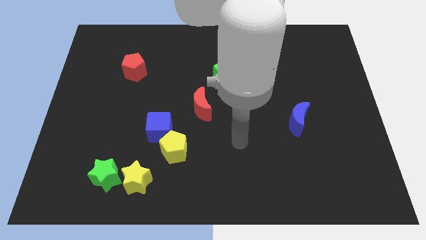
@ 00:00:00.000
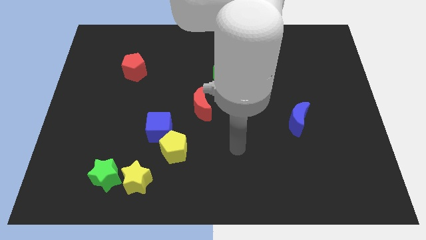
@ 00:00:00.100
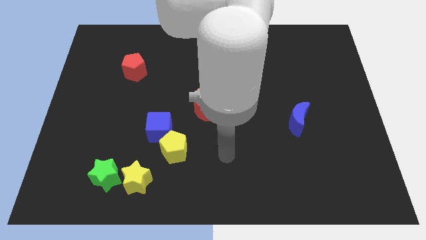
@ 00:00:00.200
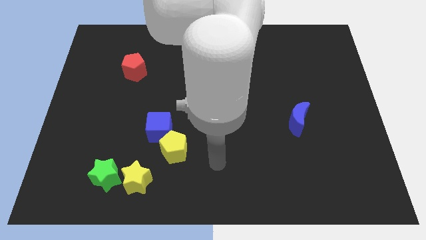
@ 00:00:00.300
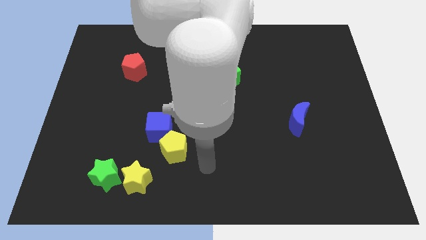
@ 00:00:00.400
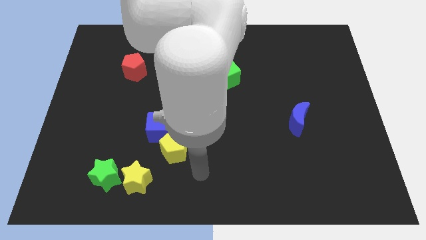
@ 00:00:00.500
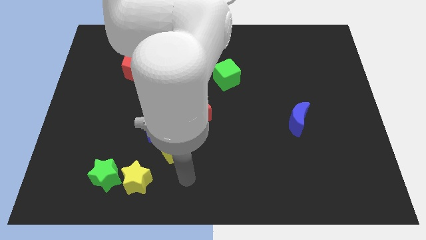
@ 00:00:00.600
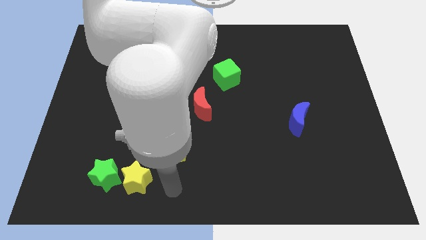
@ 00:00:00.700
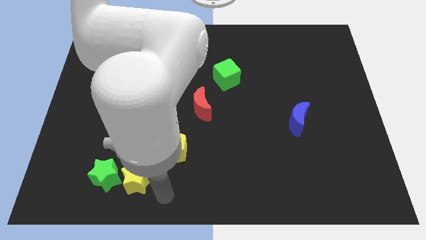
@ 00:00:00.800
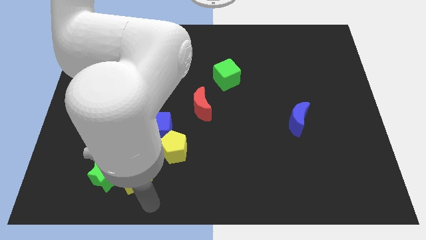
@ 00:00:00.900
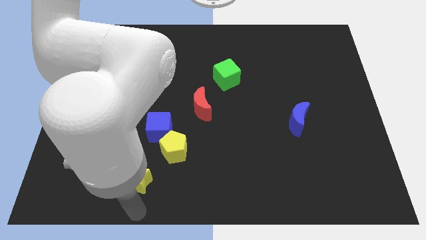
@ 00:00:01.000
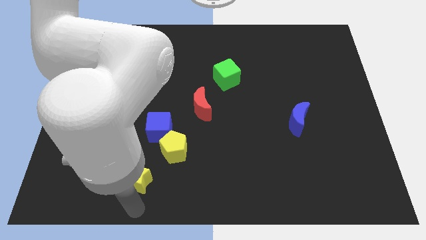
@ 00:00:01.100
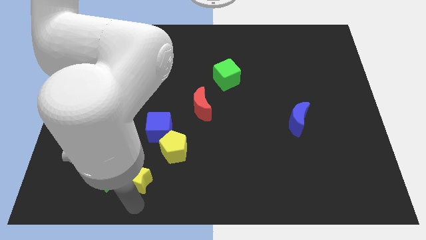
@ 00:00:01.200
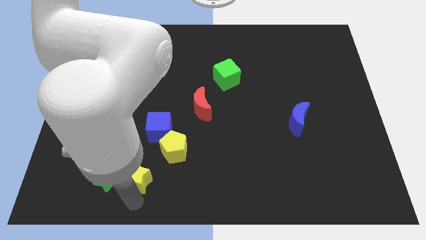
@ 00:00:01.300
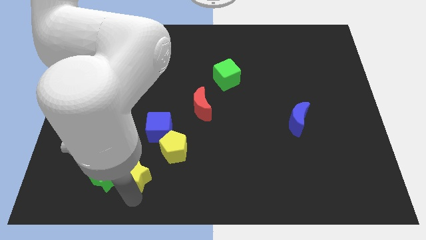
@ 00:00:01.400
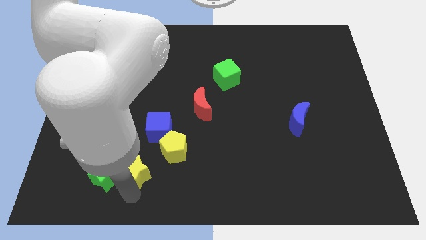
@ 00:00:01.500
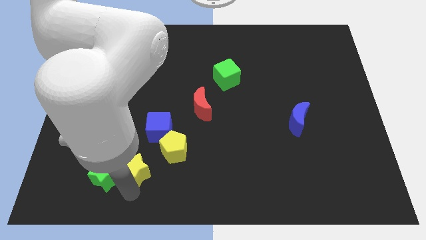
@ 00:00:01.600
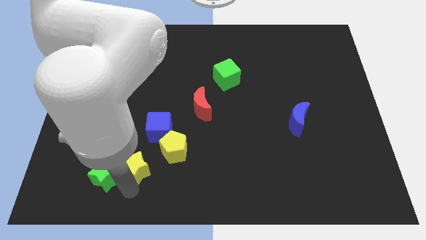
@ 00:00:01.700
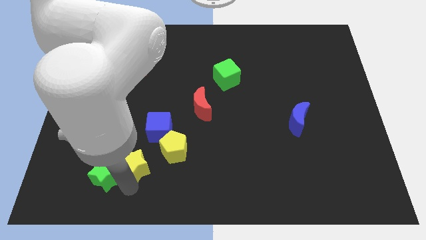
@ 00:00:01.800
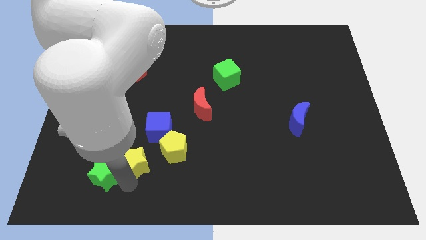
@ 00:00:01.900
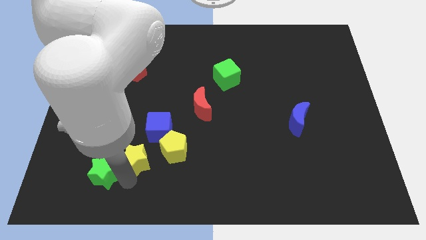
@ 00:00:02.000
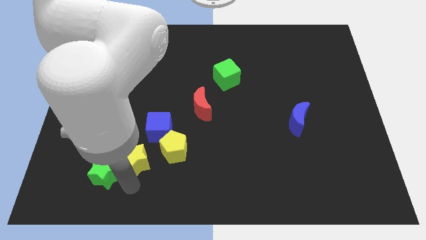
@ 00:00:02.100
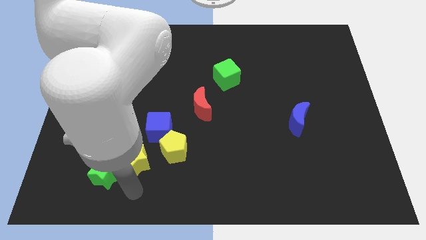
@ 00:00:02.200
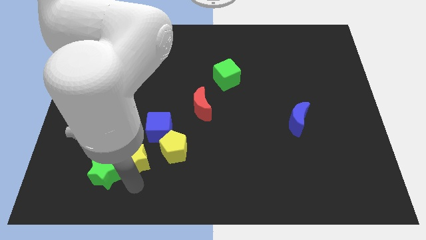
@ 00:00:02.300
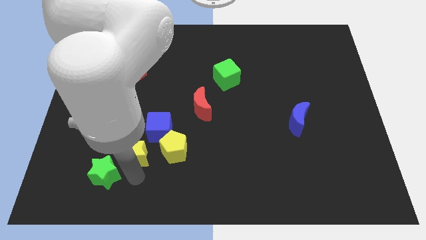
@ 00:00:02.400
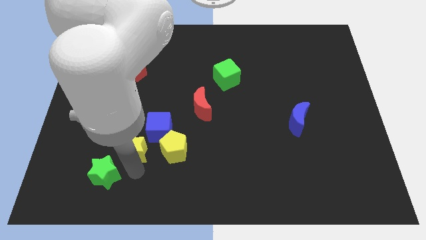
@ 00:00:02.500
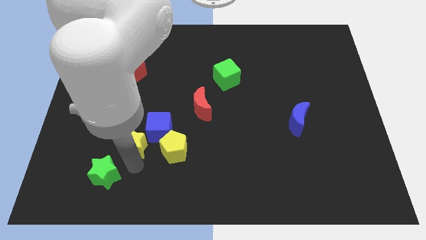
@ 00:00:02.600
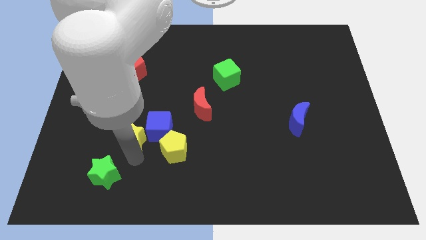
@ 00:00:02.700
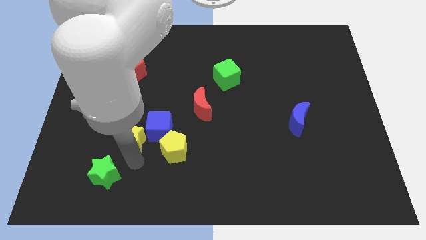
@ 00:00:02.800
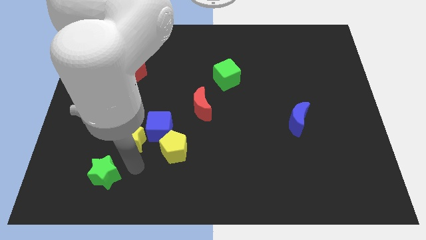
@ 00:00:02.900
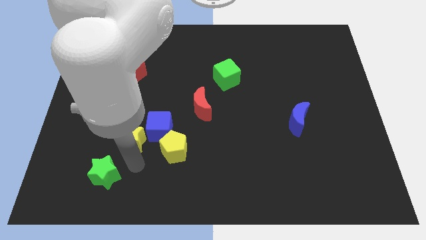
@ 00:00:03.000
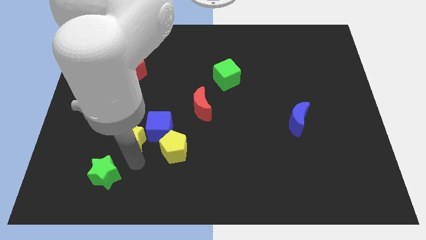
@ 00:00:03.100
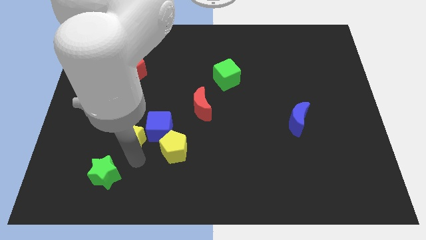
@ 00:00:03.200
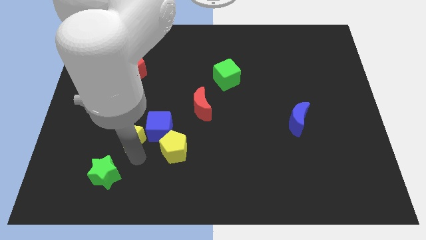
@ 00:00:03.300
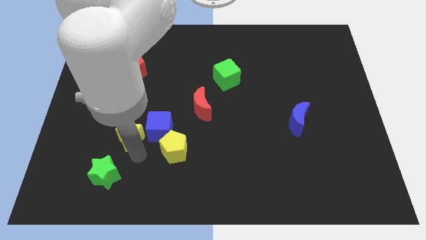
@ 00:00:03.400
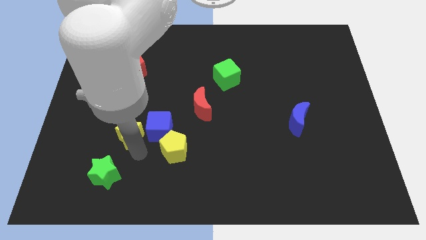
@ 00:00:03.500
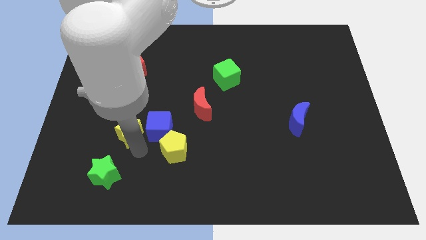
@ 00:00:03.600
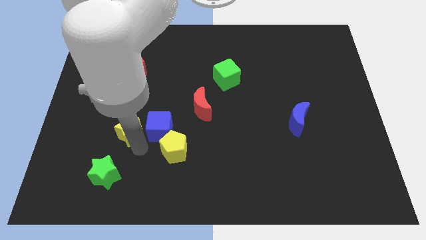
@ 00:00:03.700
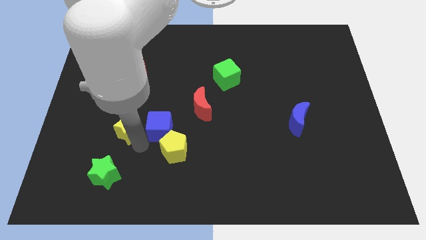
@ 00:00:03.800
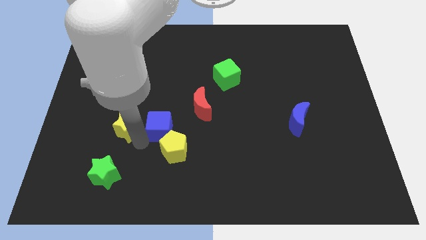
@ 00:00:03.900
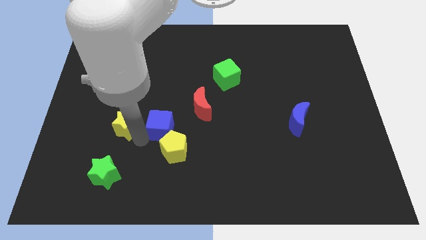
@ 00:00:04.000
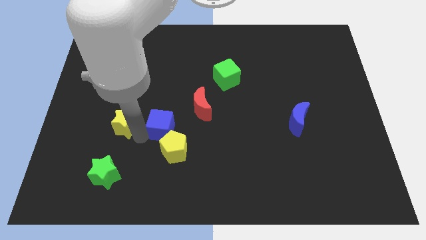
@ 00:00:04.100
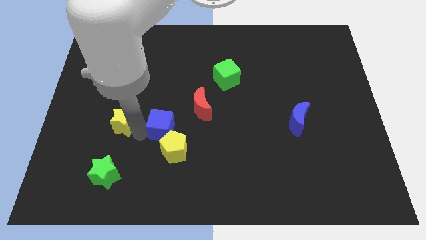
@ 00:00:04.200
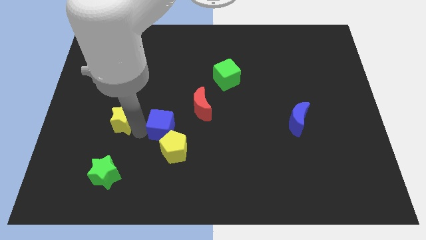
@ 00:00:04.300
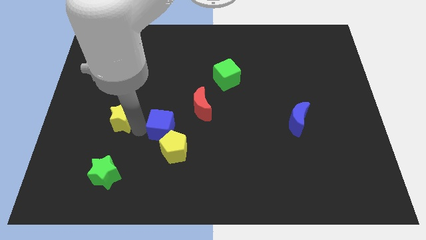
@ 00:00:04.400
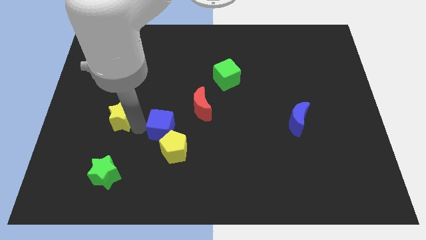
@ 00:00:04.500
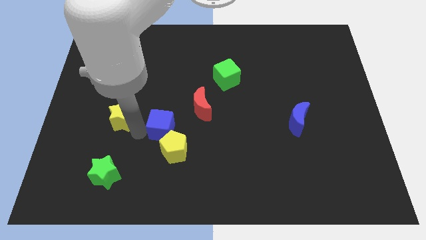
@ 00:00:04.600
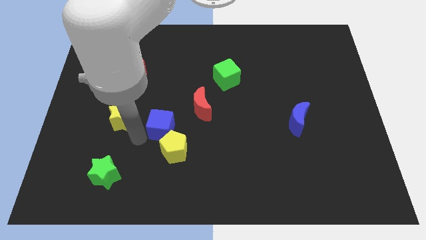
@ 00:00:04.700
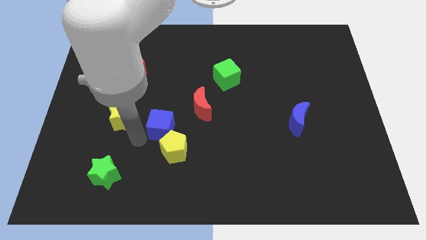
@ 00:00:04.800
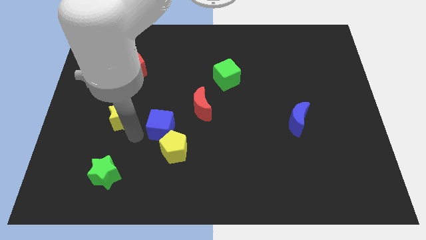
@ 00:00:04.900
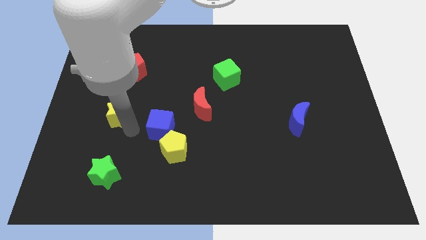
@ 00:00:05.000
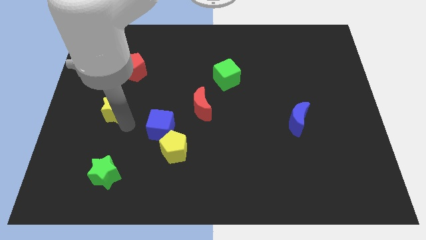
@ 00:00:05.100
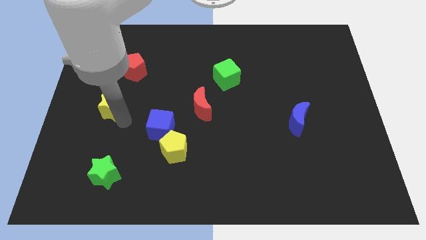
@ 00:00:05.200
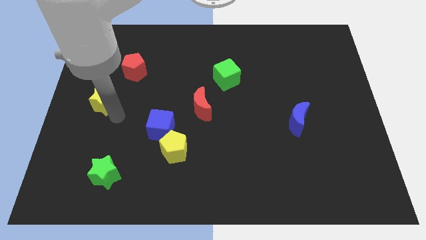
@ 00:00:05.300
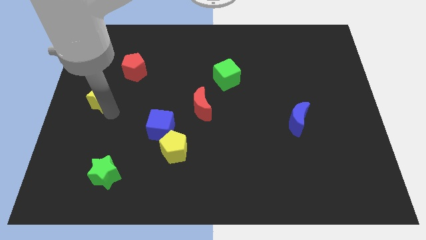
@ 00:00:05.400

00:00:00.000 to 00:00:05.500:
slide the yellow star to the bottom left of the red pentagon

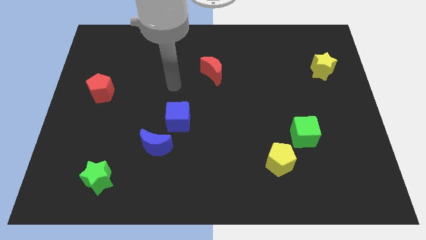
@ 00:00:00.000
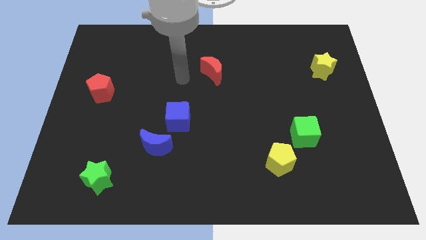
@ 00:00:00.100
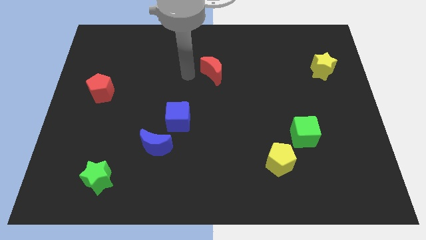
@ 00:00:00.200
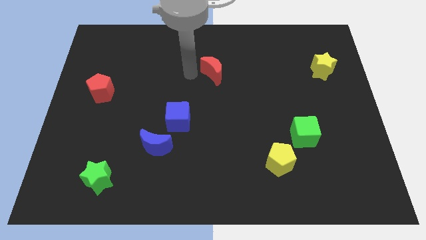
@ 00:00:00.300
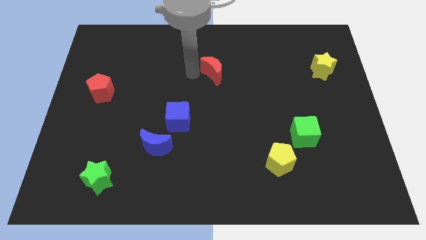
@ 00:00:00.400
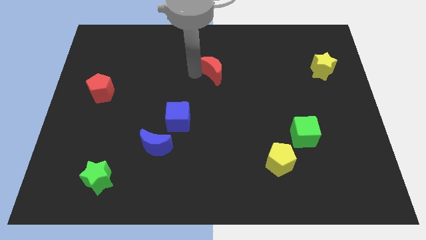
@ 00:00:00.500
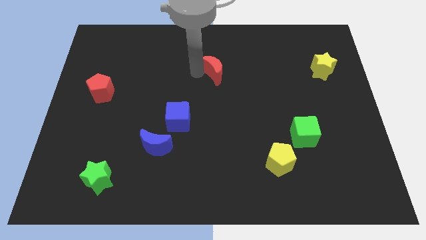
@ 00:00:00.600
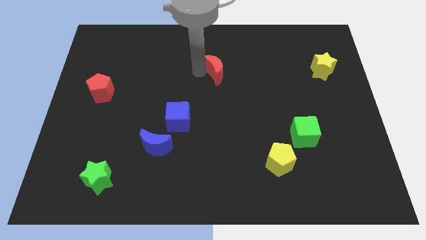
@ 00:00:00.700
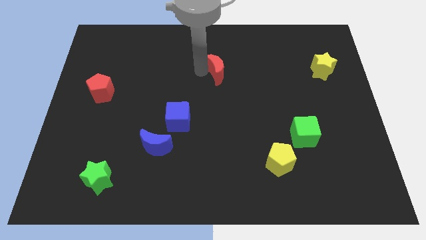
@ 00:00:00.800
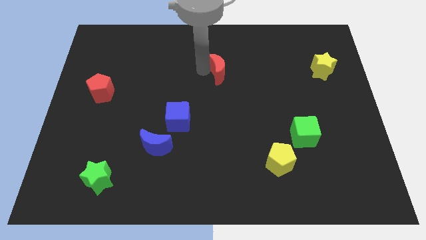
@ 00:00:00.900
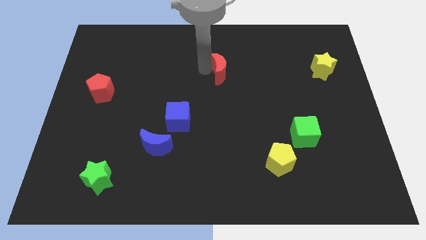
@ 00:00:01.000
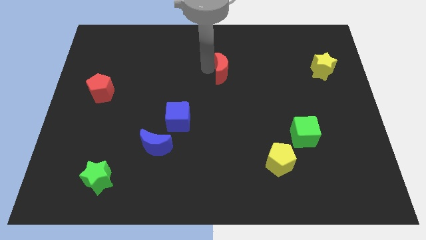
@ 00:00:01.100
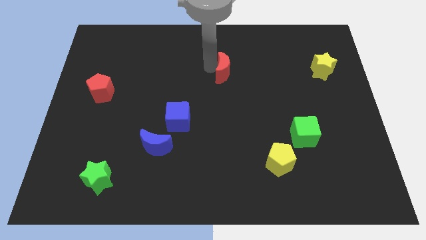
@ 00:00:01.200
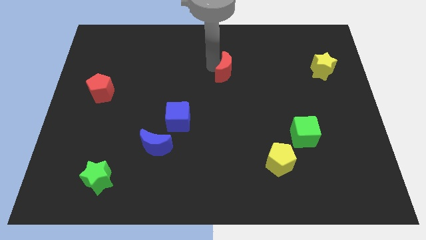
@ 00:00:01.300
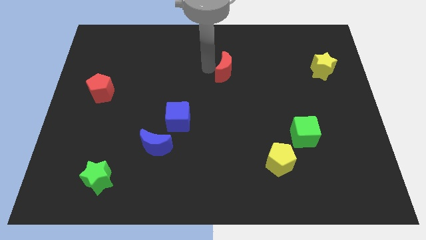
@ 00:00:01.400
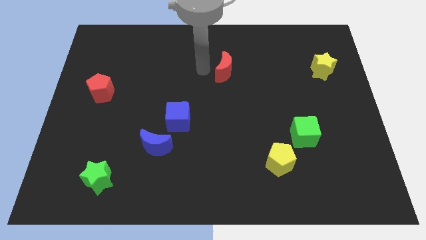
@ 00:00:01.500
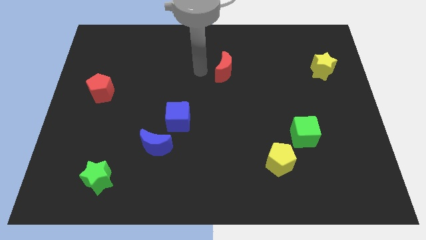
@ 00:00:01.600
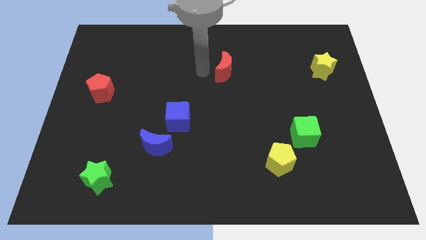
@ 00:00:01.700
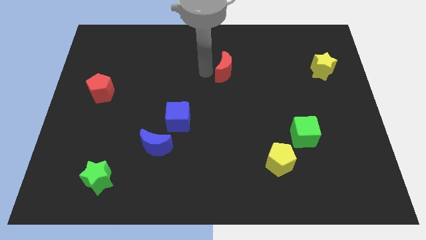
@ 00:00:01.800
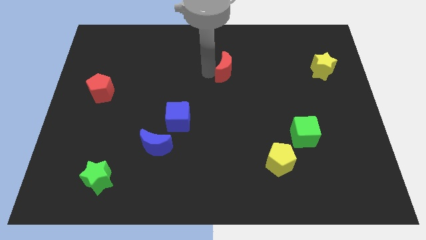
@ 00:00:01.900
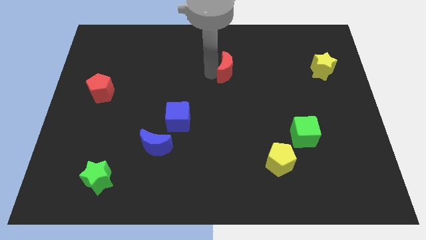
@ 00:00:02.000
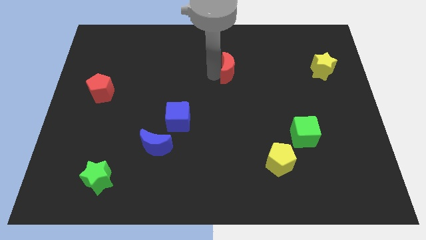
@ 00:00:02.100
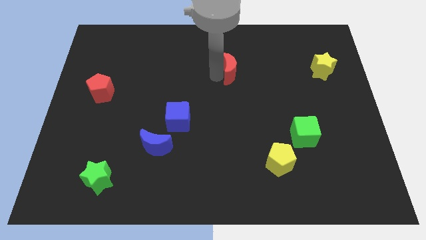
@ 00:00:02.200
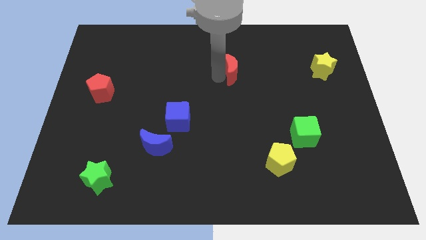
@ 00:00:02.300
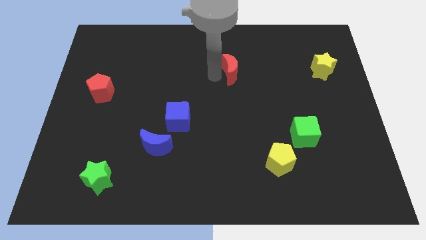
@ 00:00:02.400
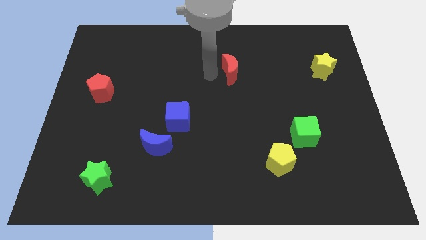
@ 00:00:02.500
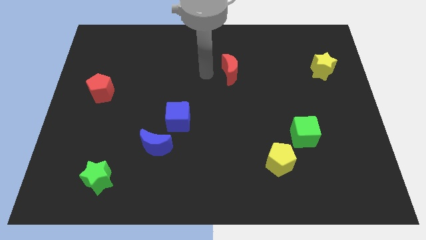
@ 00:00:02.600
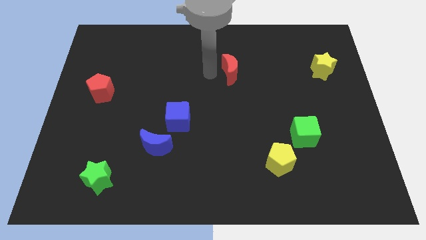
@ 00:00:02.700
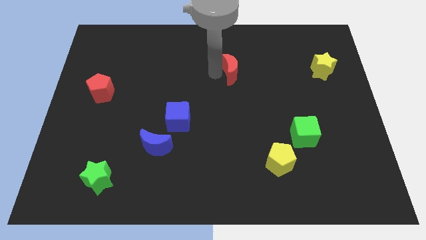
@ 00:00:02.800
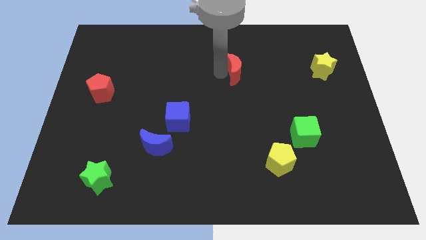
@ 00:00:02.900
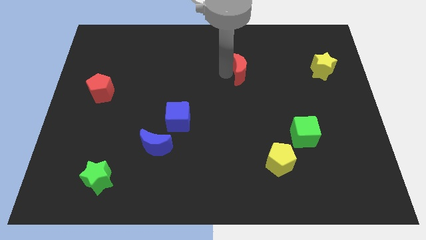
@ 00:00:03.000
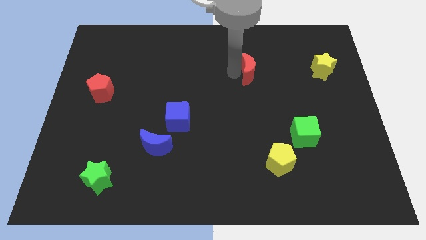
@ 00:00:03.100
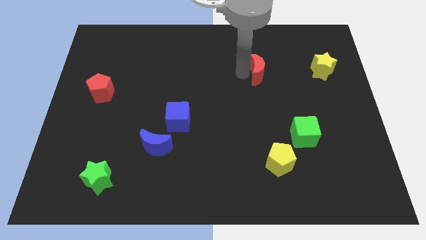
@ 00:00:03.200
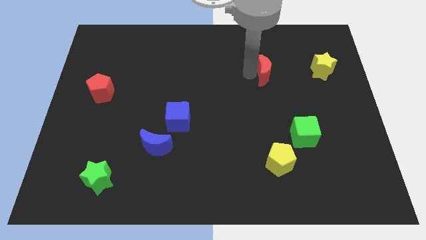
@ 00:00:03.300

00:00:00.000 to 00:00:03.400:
push the red moon to the left of the yellow star
